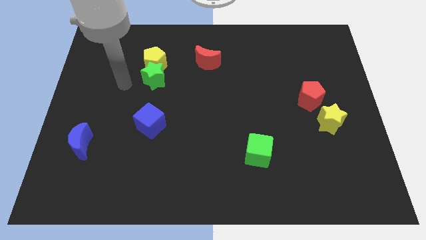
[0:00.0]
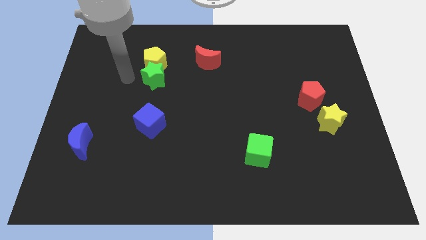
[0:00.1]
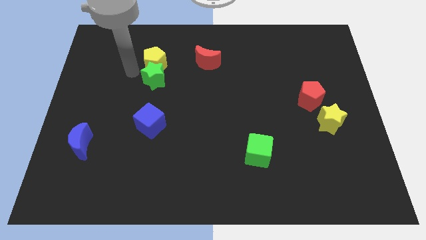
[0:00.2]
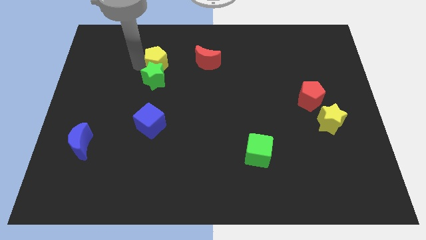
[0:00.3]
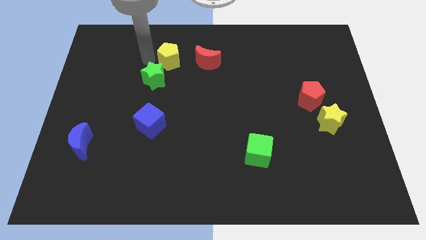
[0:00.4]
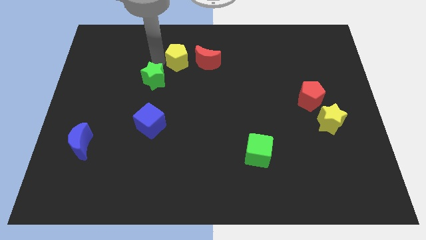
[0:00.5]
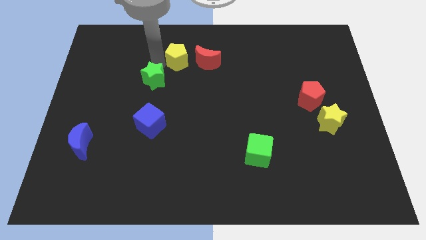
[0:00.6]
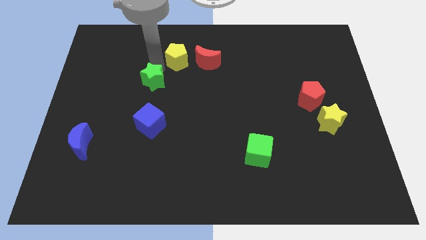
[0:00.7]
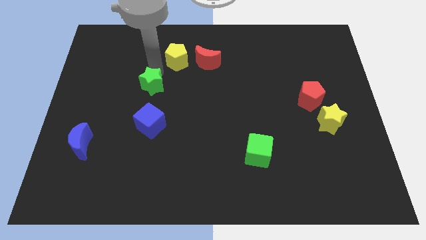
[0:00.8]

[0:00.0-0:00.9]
pull the green star apart from the yellow pentagon

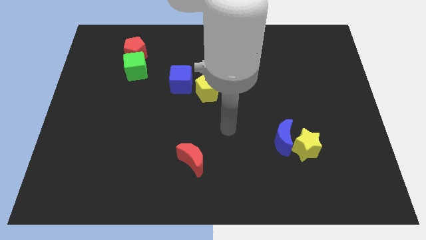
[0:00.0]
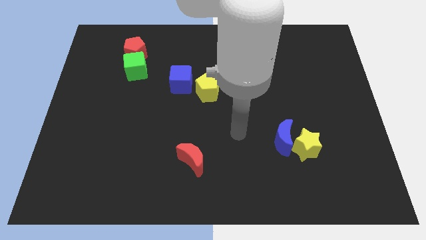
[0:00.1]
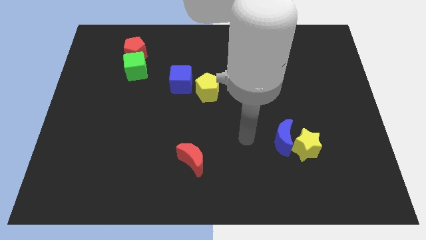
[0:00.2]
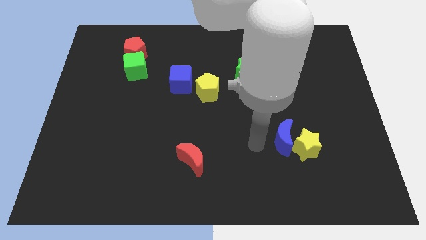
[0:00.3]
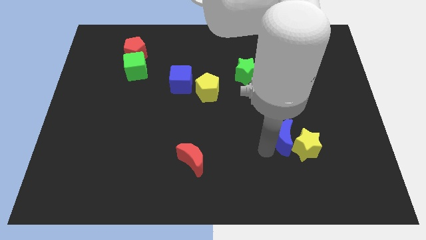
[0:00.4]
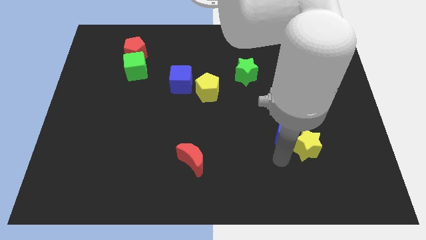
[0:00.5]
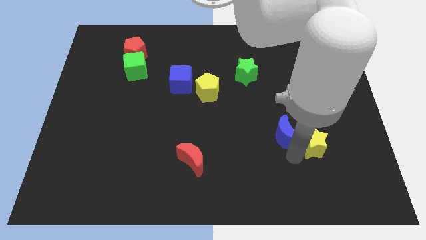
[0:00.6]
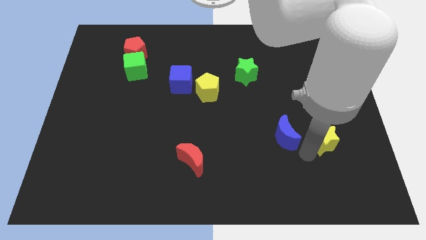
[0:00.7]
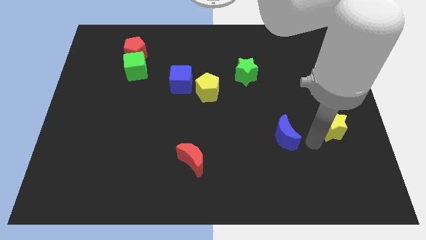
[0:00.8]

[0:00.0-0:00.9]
move the blue moon away from the yellow star

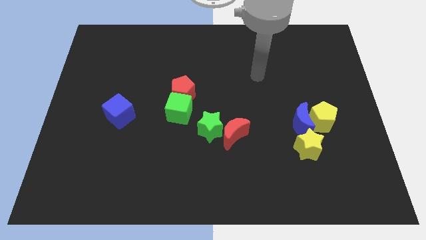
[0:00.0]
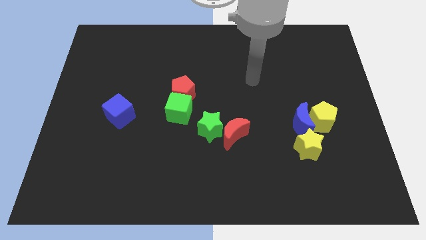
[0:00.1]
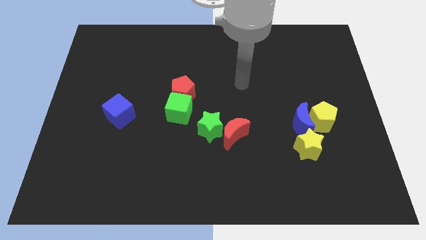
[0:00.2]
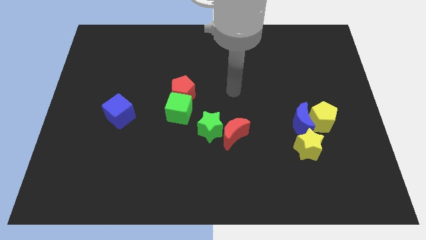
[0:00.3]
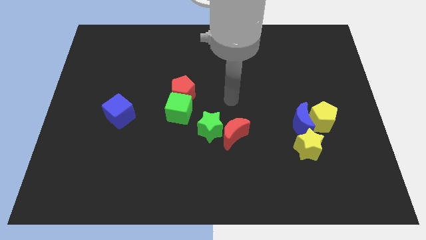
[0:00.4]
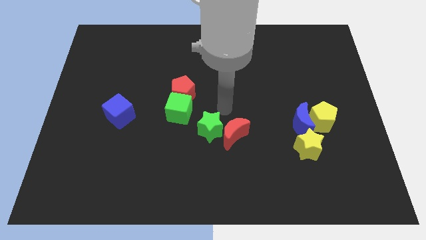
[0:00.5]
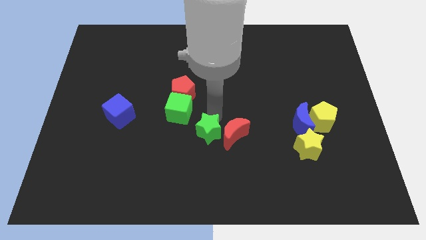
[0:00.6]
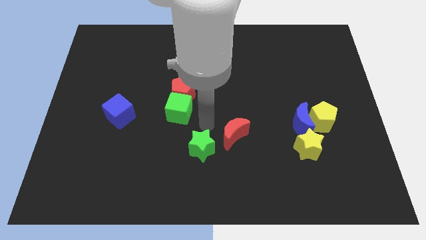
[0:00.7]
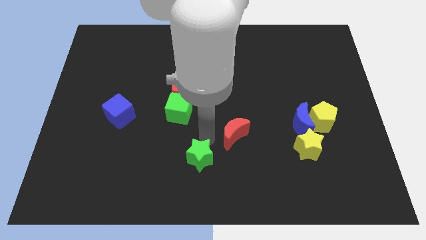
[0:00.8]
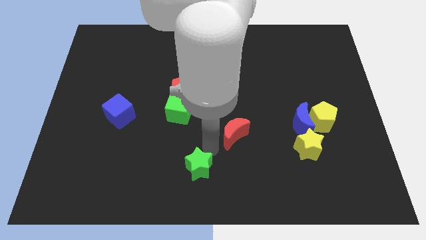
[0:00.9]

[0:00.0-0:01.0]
separate the red moon from the green star

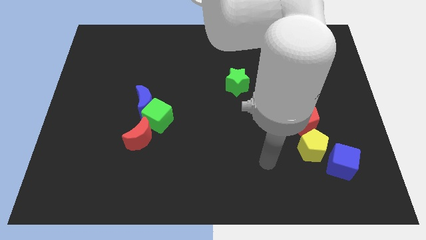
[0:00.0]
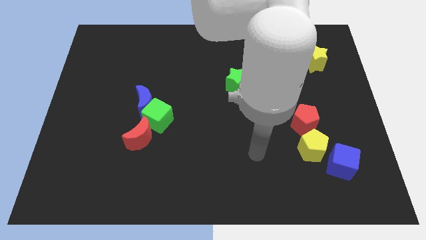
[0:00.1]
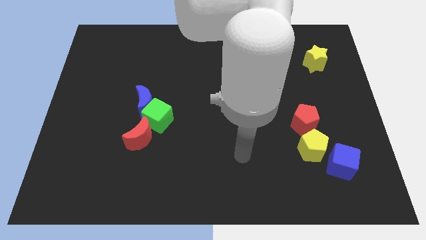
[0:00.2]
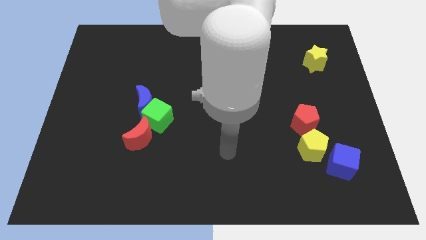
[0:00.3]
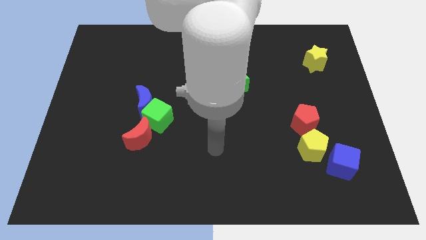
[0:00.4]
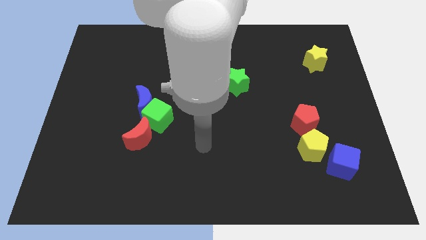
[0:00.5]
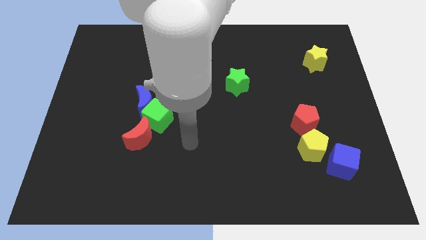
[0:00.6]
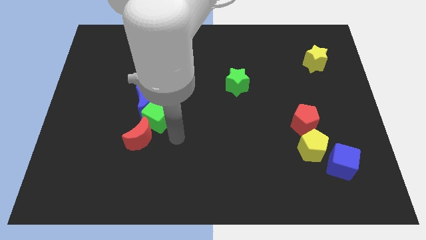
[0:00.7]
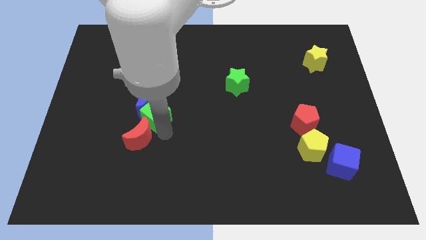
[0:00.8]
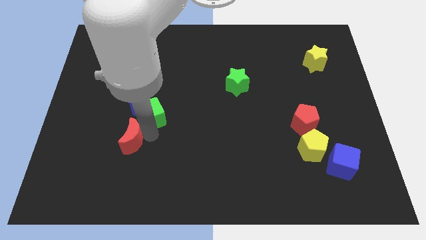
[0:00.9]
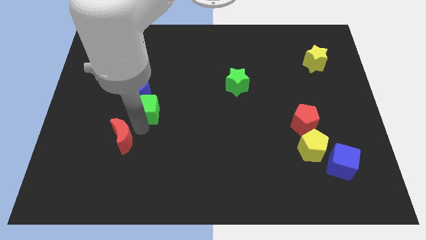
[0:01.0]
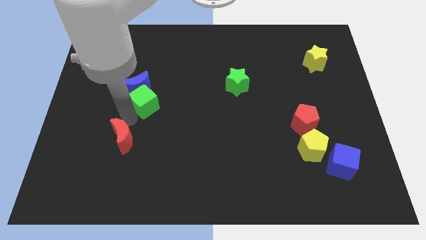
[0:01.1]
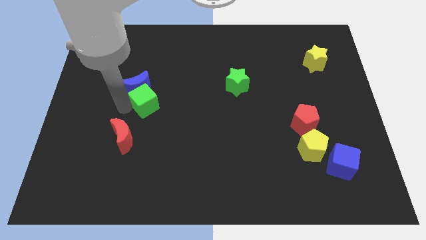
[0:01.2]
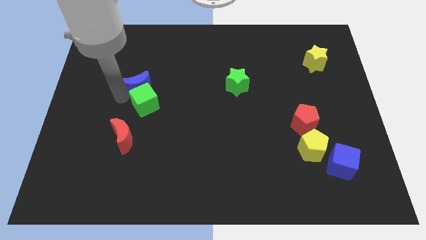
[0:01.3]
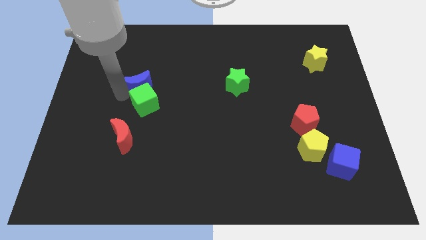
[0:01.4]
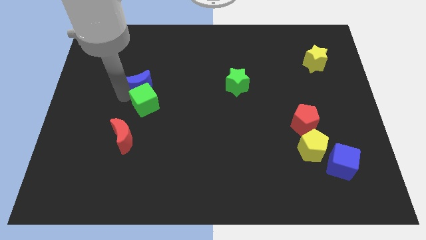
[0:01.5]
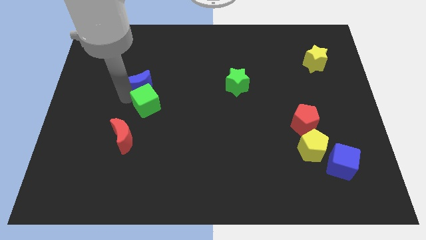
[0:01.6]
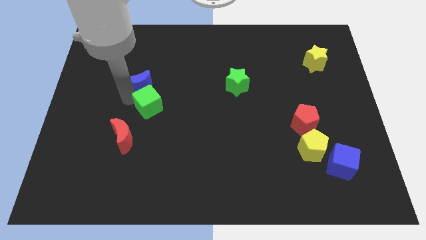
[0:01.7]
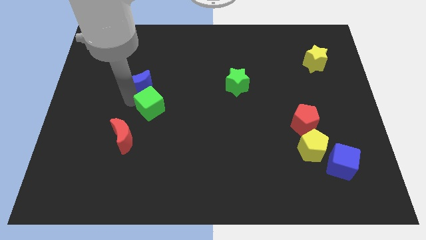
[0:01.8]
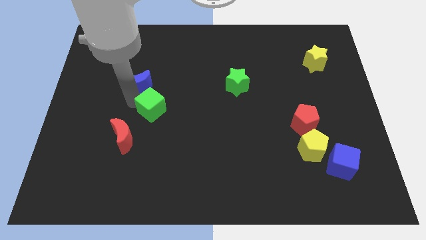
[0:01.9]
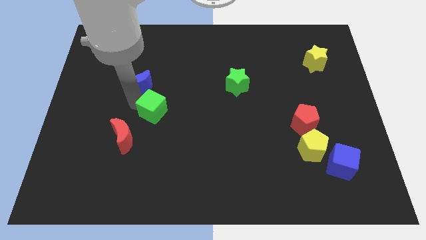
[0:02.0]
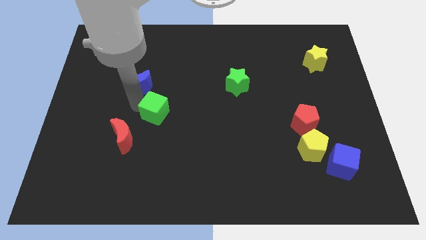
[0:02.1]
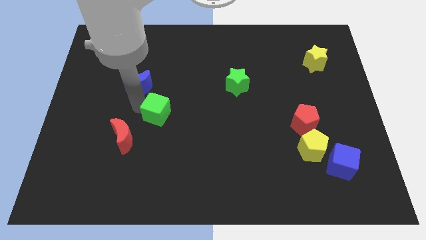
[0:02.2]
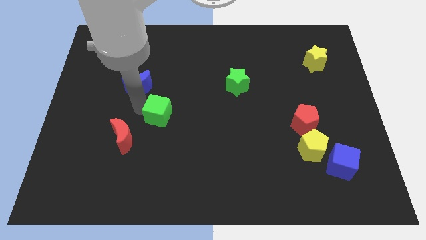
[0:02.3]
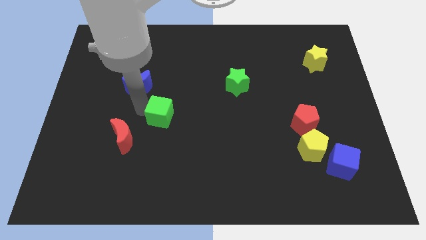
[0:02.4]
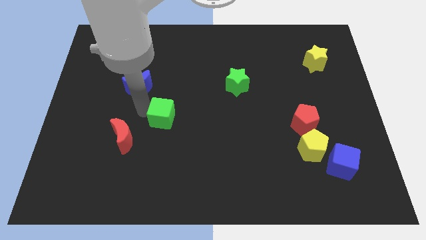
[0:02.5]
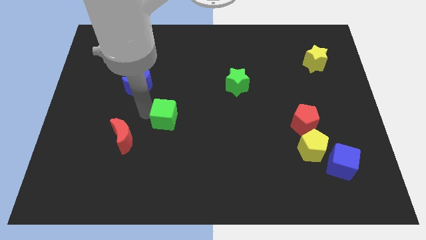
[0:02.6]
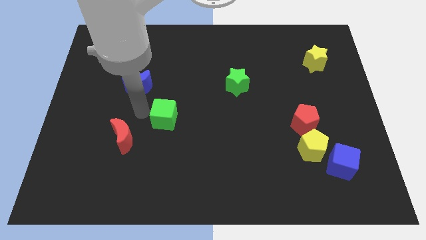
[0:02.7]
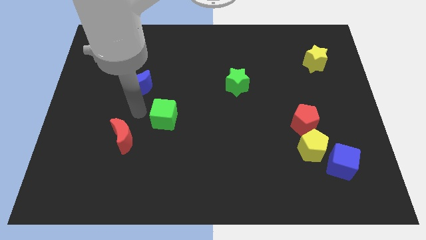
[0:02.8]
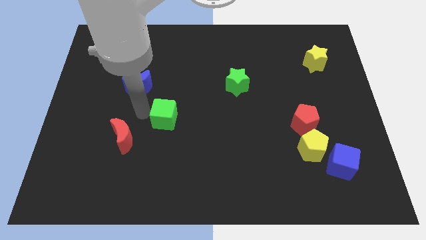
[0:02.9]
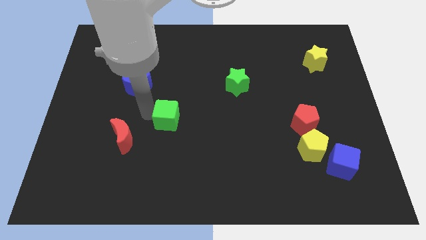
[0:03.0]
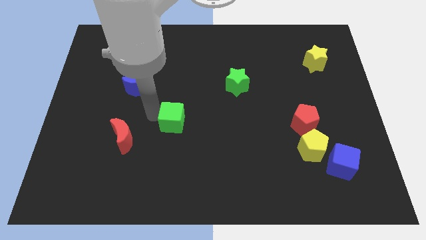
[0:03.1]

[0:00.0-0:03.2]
separate the green cube from the blue moon and red moon

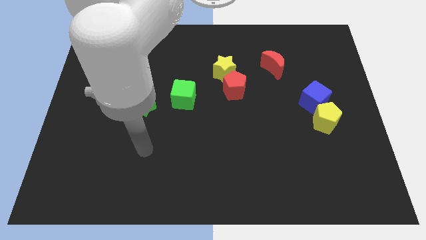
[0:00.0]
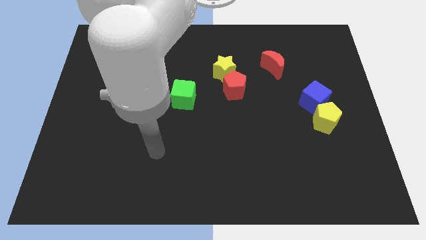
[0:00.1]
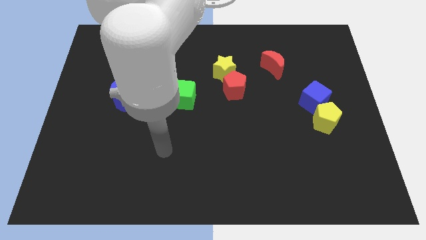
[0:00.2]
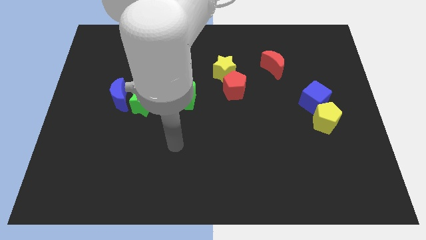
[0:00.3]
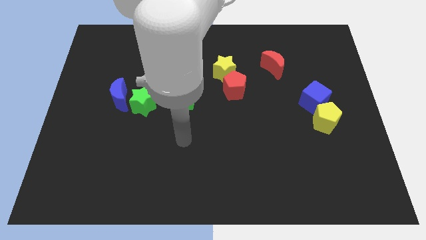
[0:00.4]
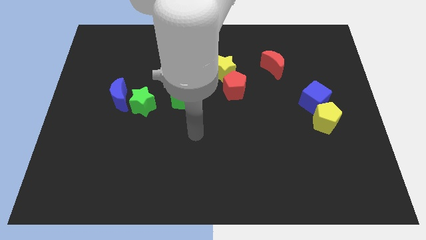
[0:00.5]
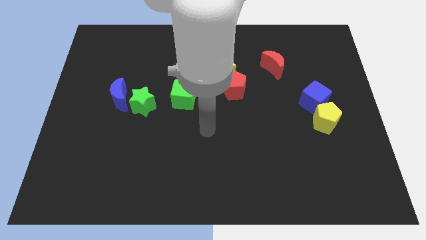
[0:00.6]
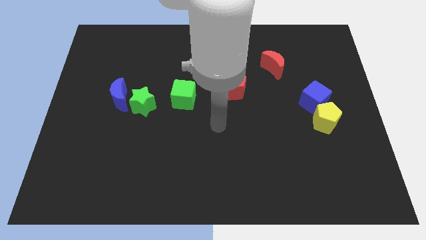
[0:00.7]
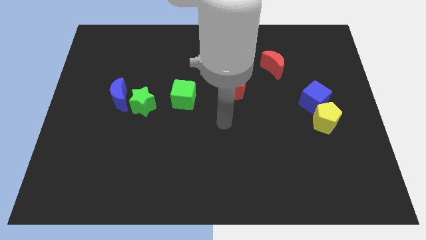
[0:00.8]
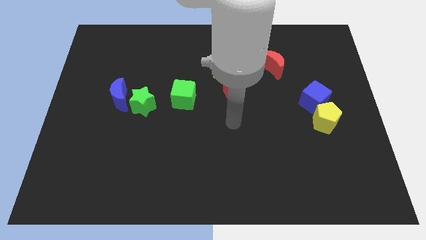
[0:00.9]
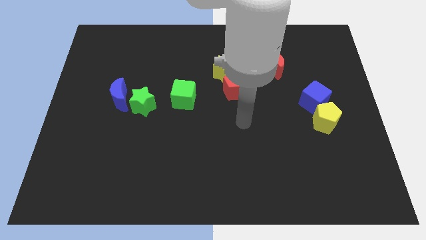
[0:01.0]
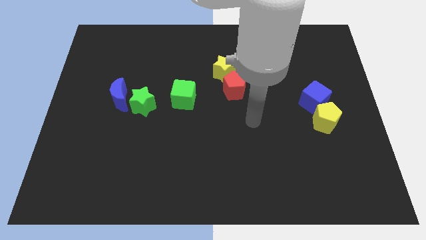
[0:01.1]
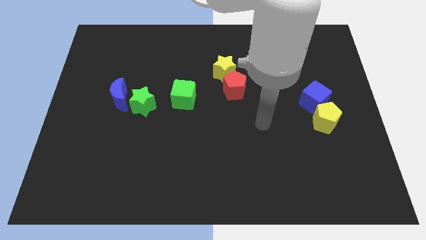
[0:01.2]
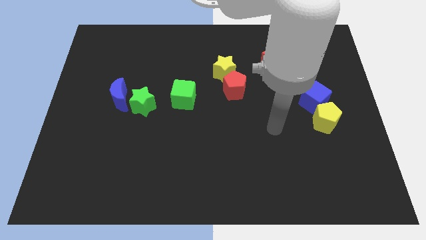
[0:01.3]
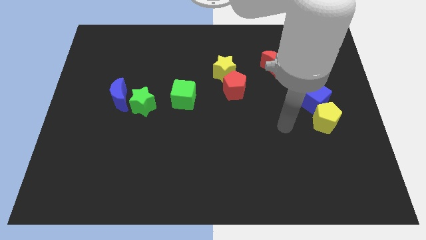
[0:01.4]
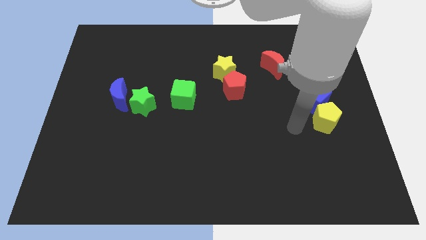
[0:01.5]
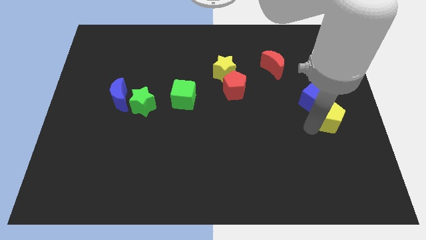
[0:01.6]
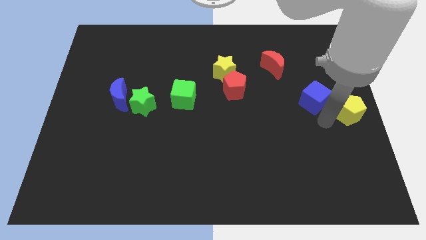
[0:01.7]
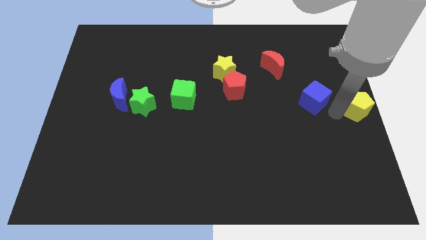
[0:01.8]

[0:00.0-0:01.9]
pull the blue cube apart from the yellow pentagon

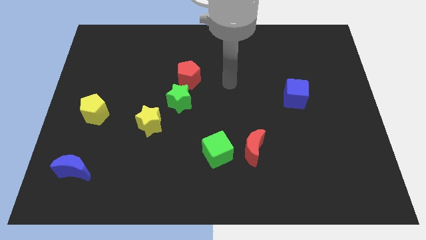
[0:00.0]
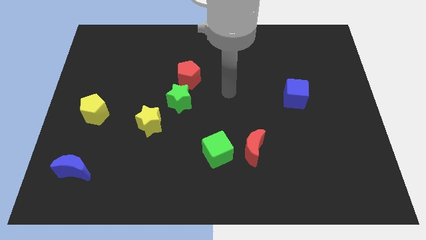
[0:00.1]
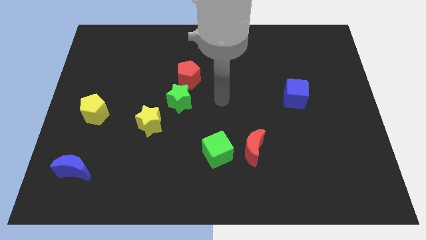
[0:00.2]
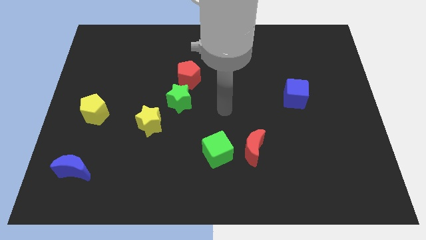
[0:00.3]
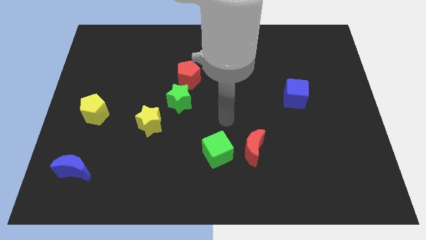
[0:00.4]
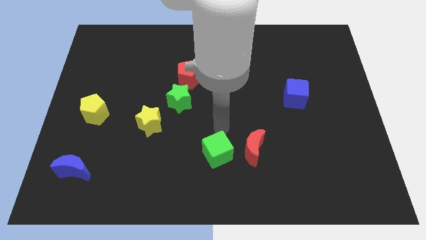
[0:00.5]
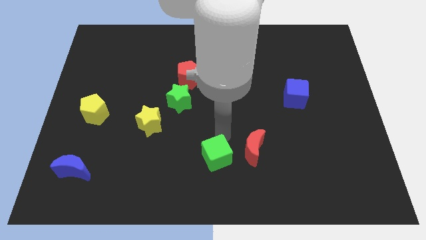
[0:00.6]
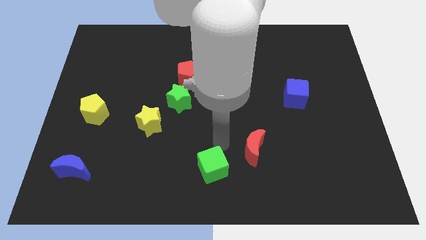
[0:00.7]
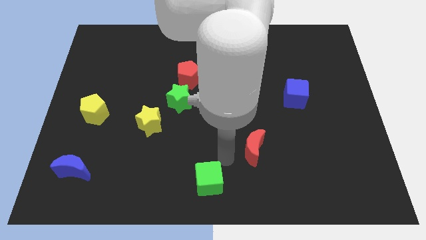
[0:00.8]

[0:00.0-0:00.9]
move the red moon away from the green cube

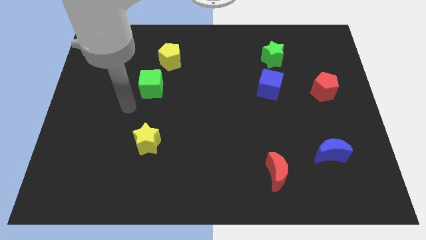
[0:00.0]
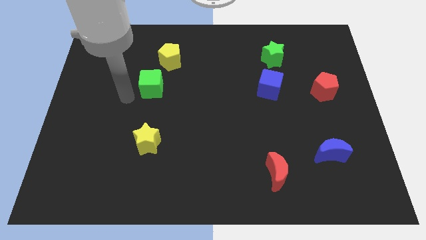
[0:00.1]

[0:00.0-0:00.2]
separate the green cube from the yellow pentagon

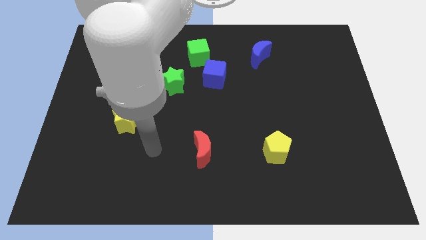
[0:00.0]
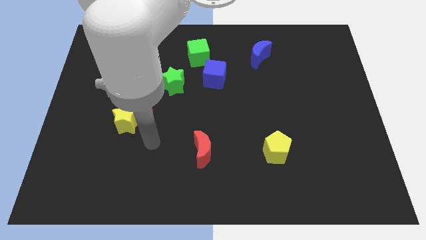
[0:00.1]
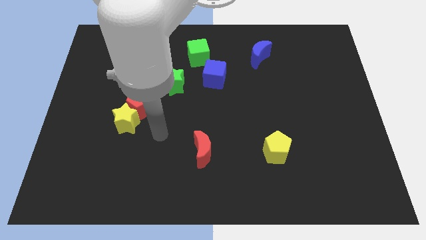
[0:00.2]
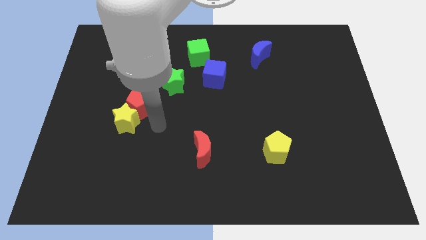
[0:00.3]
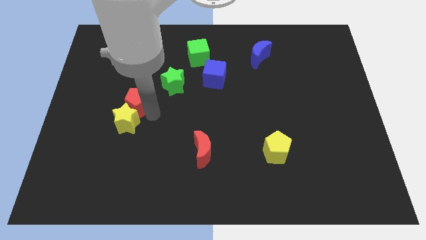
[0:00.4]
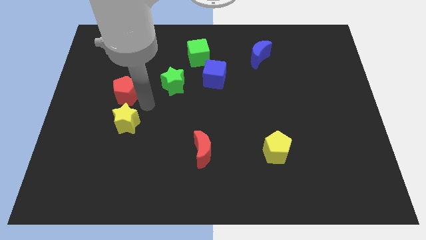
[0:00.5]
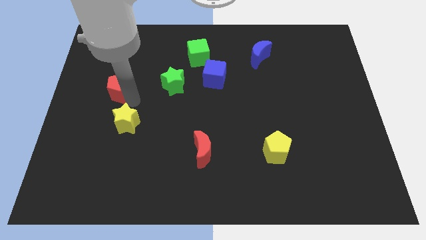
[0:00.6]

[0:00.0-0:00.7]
move the yellow star away from the red pentagon
